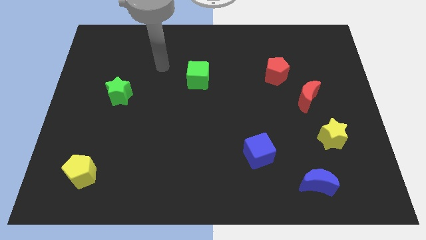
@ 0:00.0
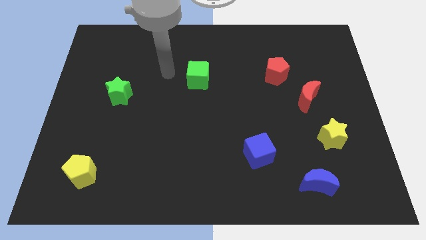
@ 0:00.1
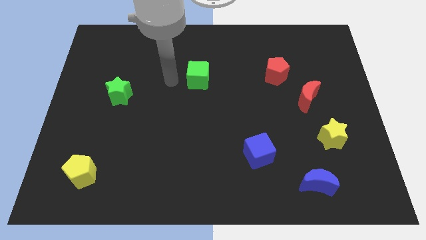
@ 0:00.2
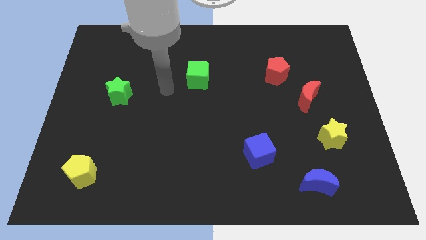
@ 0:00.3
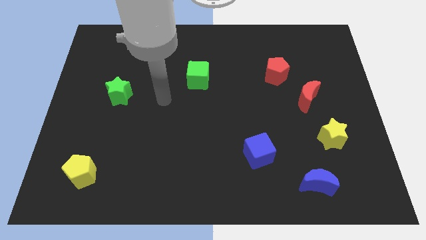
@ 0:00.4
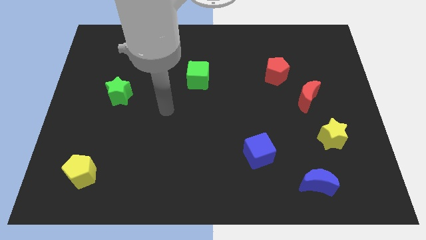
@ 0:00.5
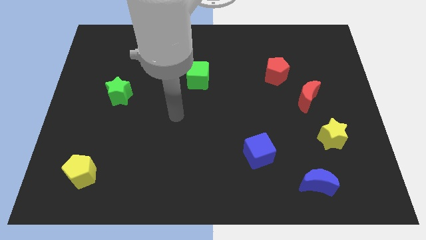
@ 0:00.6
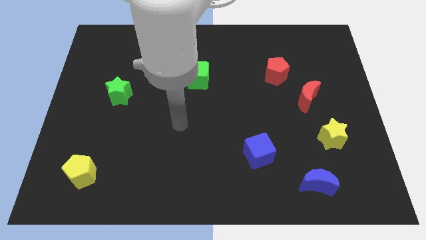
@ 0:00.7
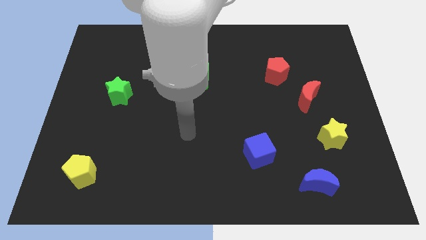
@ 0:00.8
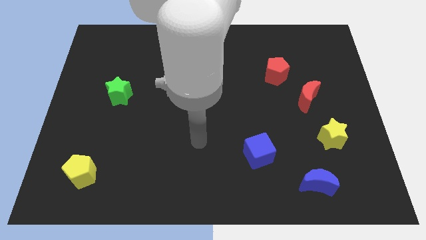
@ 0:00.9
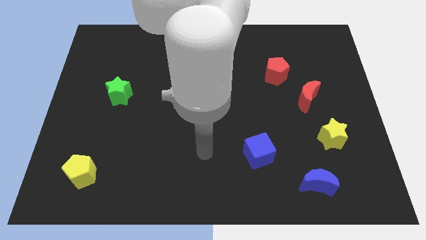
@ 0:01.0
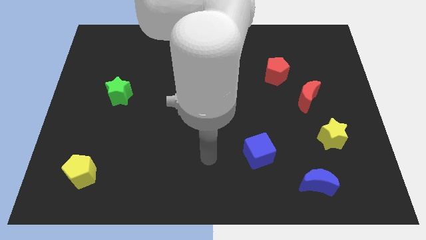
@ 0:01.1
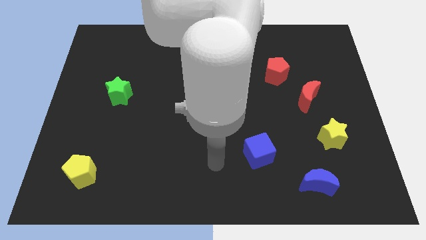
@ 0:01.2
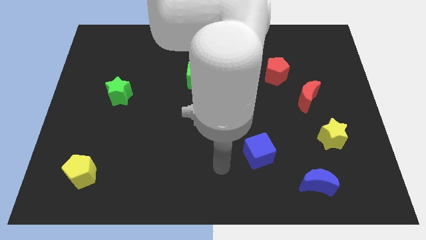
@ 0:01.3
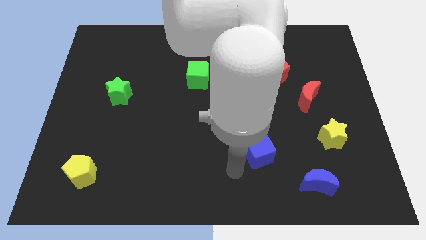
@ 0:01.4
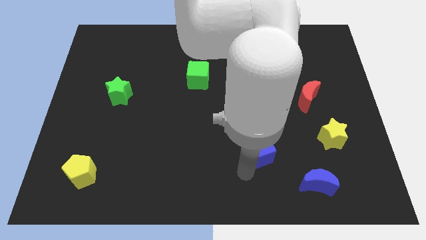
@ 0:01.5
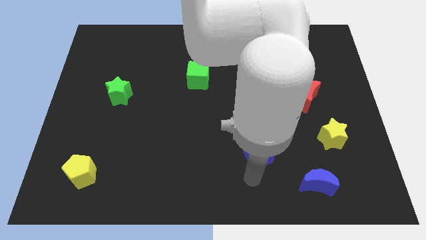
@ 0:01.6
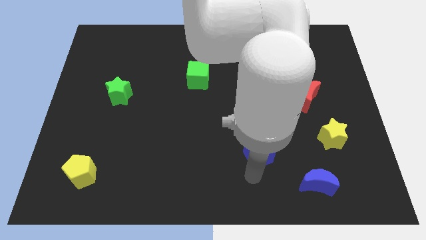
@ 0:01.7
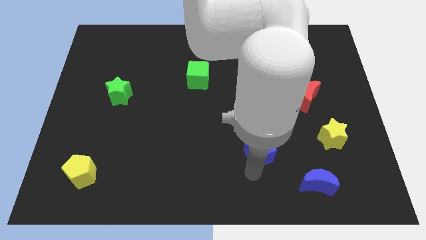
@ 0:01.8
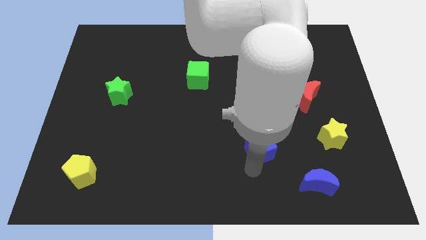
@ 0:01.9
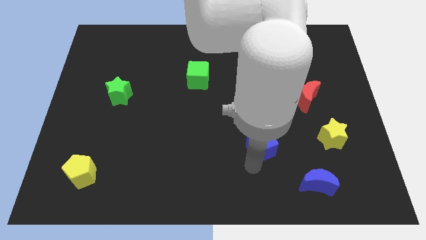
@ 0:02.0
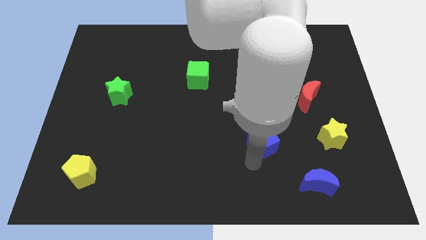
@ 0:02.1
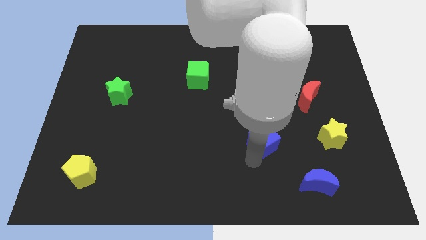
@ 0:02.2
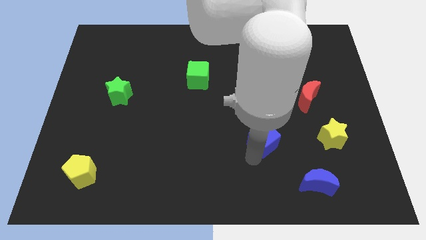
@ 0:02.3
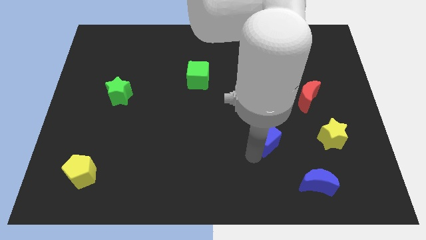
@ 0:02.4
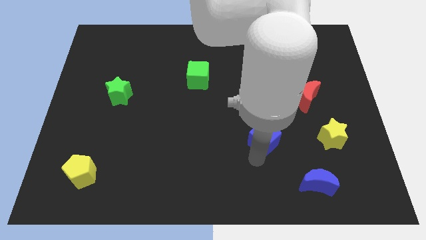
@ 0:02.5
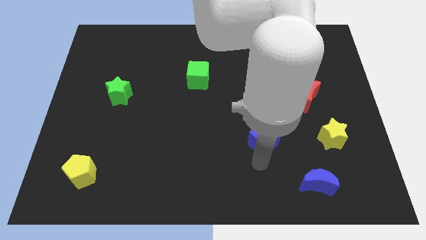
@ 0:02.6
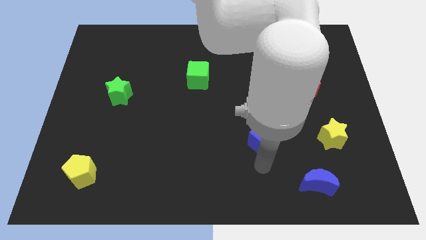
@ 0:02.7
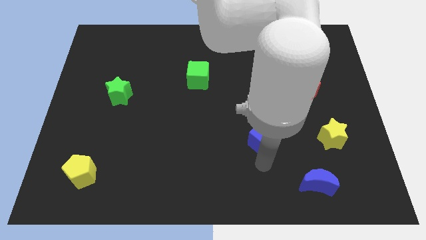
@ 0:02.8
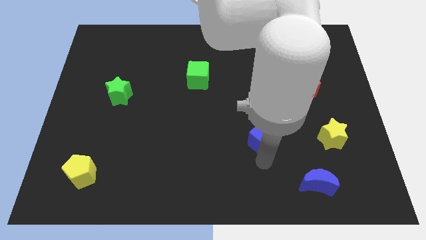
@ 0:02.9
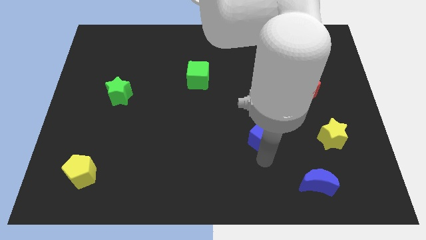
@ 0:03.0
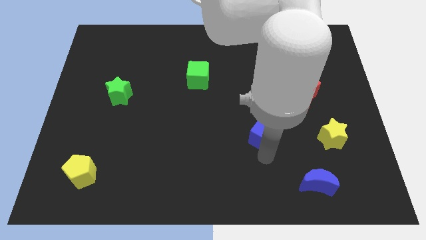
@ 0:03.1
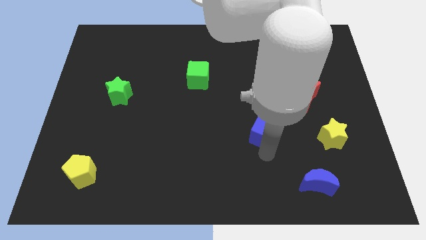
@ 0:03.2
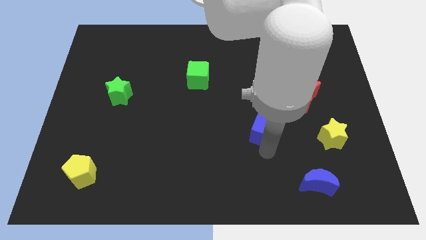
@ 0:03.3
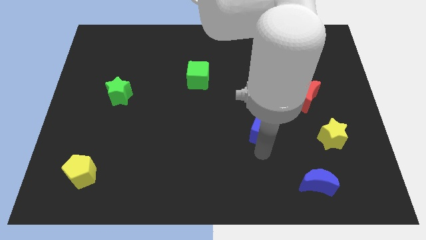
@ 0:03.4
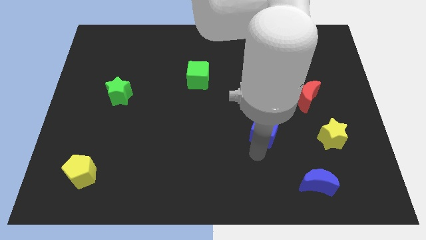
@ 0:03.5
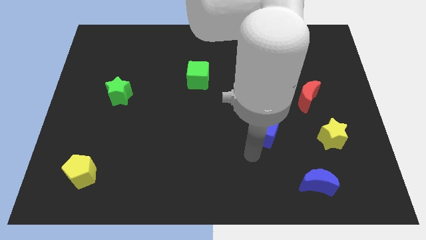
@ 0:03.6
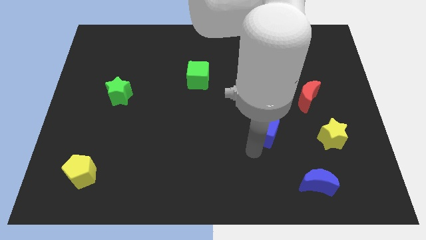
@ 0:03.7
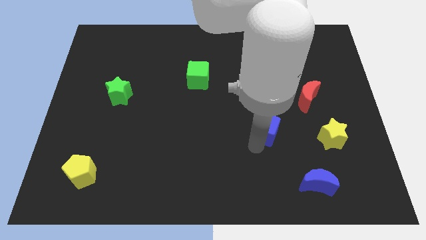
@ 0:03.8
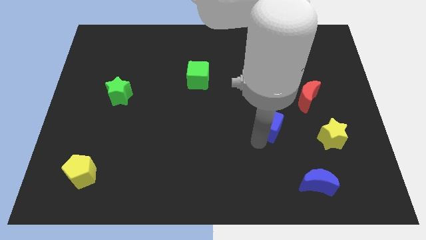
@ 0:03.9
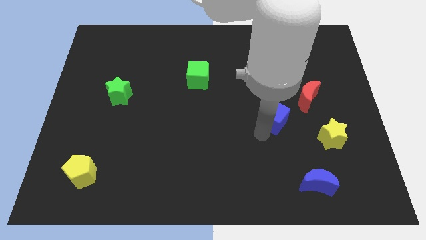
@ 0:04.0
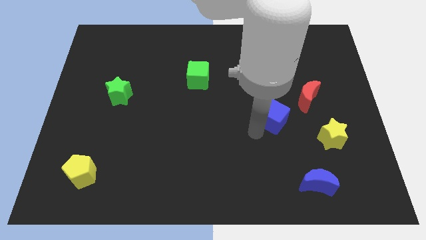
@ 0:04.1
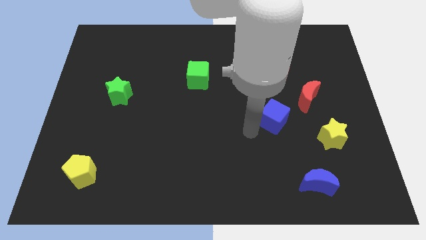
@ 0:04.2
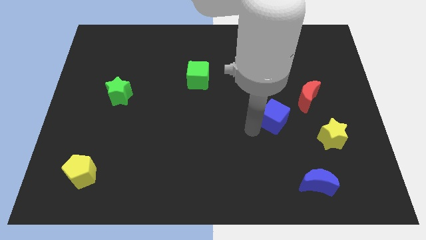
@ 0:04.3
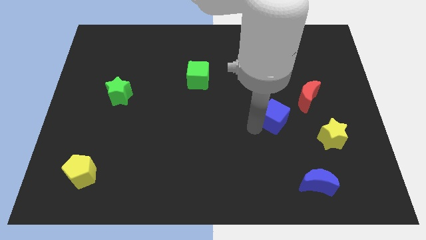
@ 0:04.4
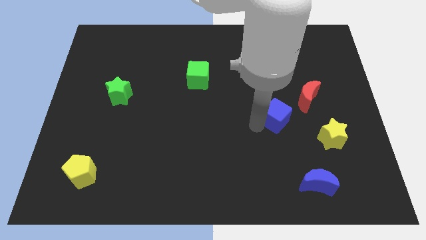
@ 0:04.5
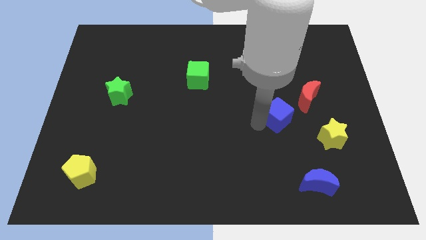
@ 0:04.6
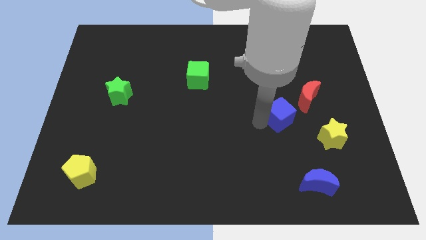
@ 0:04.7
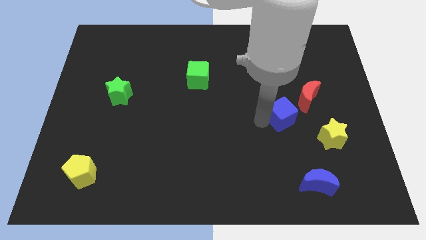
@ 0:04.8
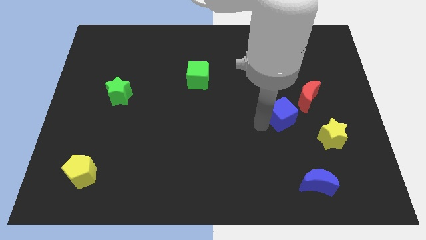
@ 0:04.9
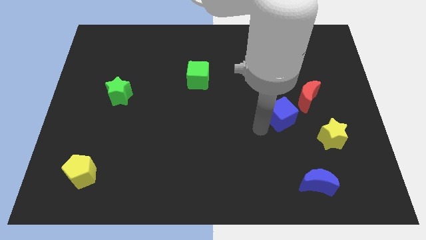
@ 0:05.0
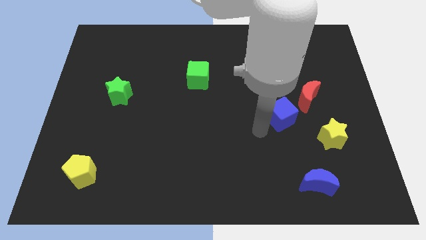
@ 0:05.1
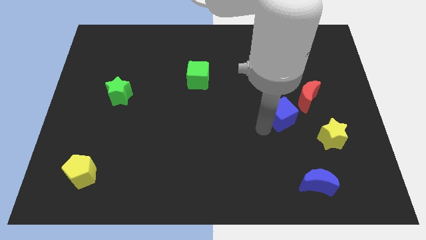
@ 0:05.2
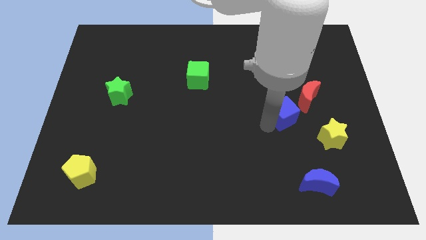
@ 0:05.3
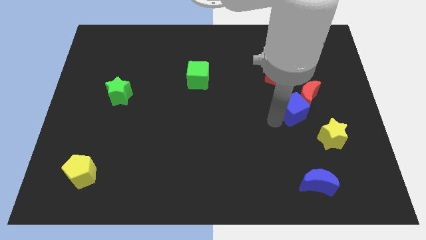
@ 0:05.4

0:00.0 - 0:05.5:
move the blue cube towards the red moon
